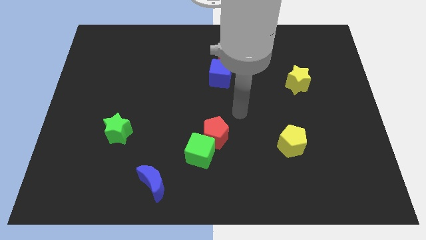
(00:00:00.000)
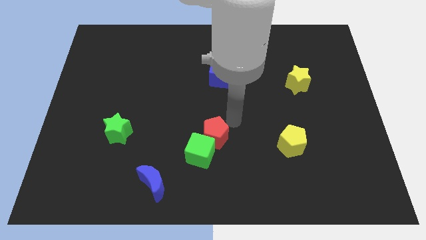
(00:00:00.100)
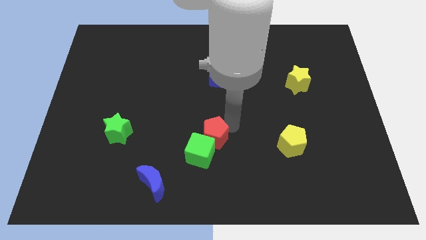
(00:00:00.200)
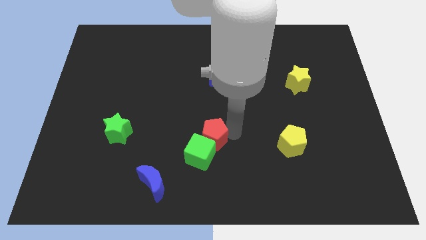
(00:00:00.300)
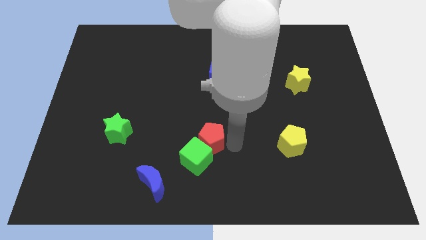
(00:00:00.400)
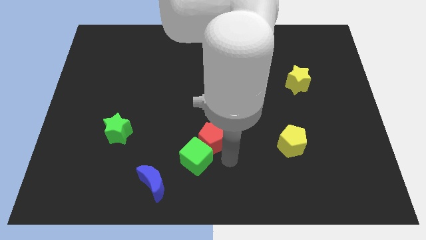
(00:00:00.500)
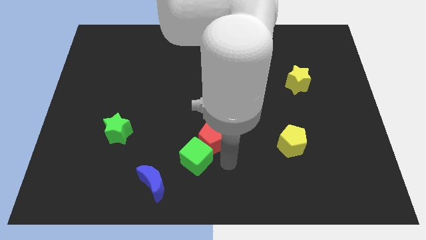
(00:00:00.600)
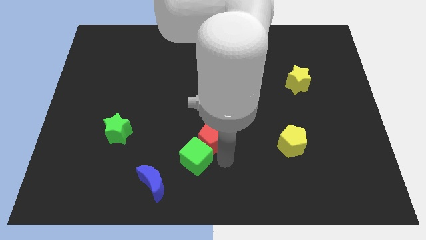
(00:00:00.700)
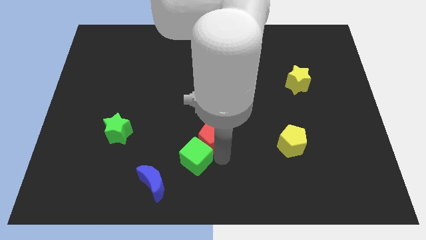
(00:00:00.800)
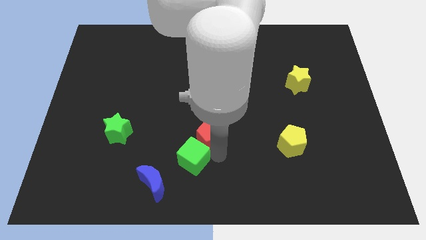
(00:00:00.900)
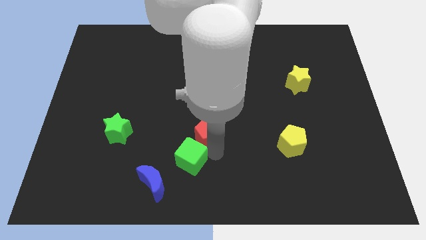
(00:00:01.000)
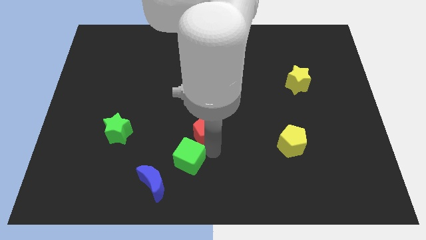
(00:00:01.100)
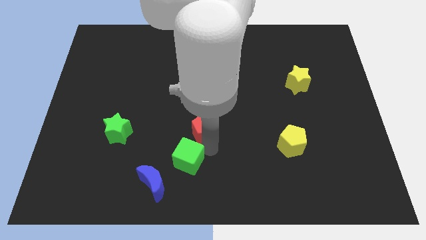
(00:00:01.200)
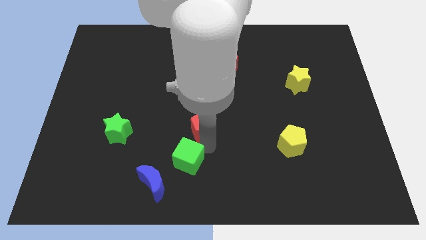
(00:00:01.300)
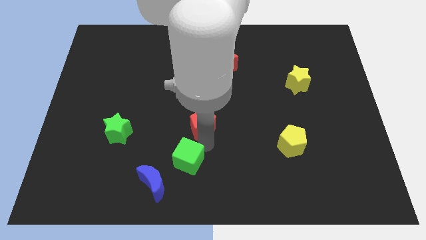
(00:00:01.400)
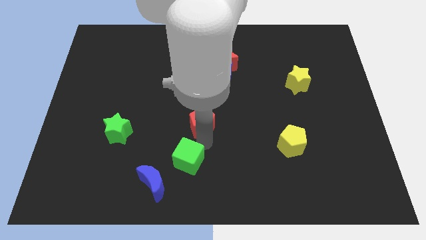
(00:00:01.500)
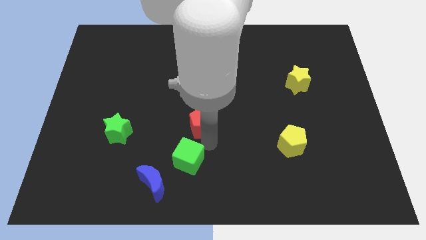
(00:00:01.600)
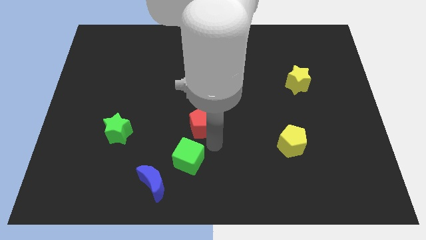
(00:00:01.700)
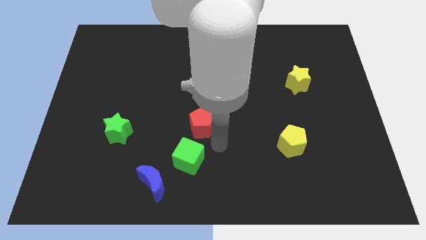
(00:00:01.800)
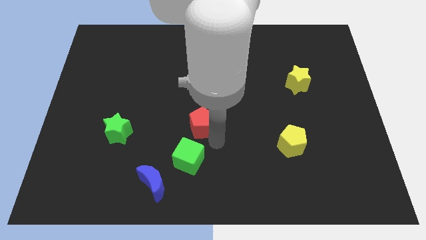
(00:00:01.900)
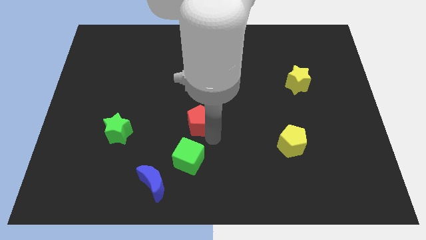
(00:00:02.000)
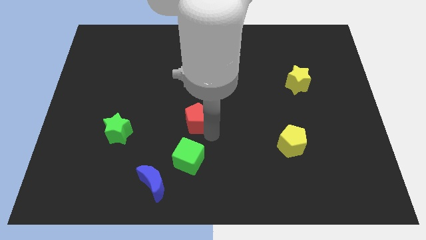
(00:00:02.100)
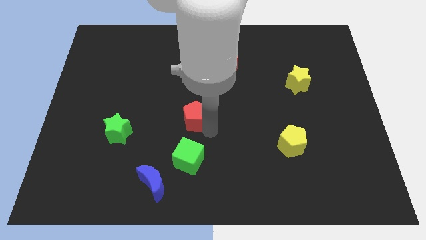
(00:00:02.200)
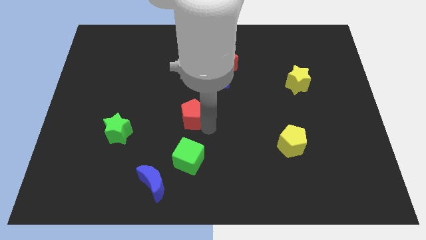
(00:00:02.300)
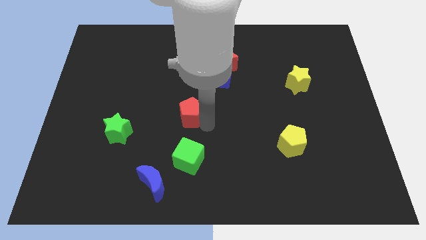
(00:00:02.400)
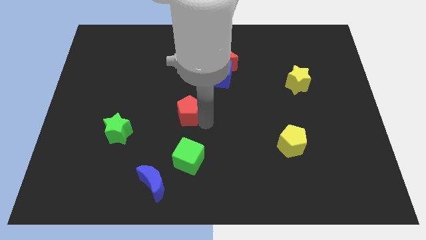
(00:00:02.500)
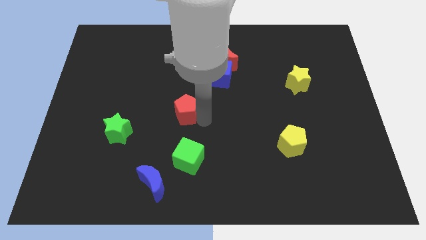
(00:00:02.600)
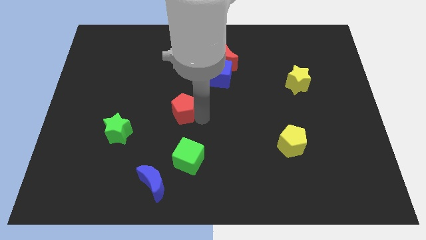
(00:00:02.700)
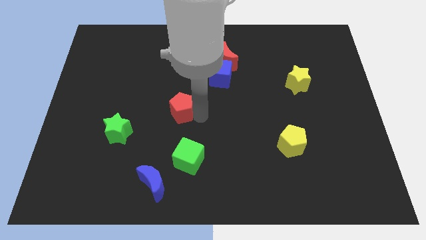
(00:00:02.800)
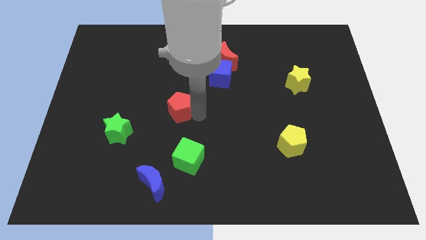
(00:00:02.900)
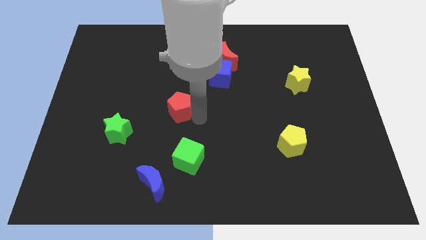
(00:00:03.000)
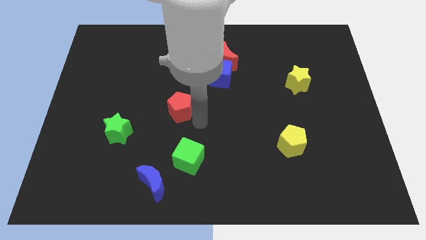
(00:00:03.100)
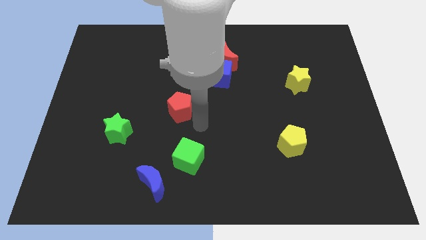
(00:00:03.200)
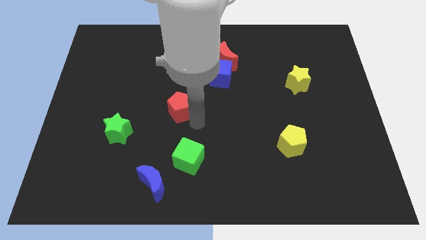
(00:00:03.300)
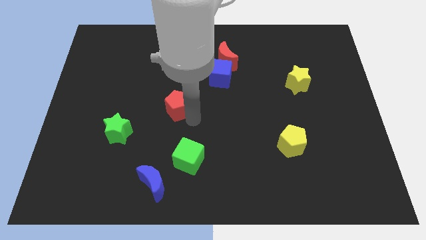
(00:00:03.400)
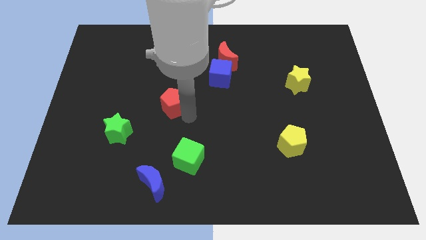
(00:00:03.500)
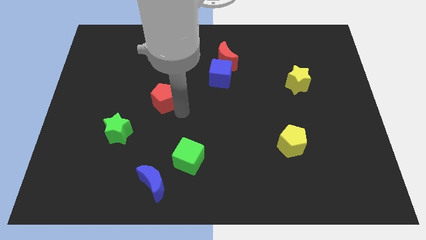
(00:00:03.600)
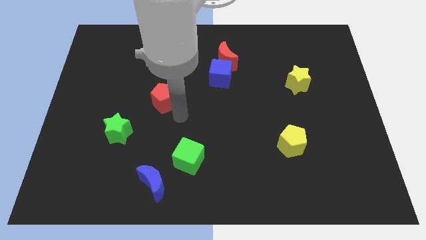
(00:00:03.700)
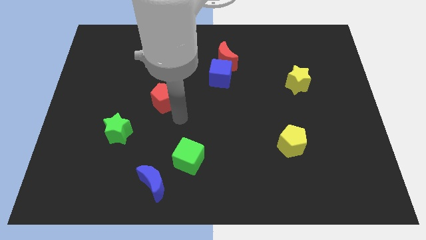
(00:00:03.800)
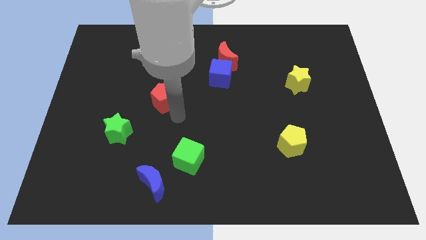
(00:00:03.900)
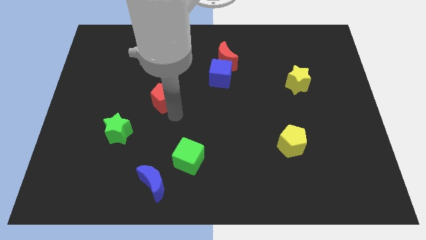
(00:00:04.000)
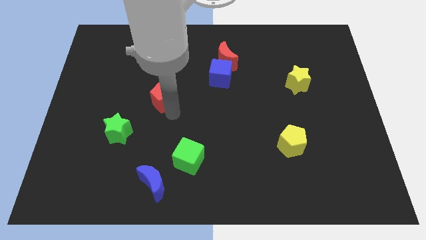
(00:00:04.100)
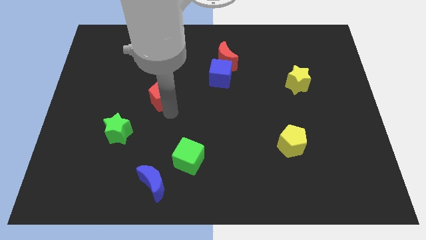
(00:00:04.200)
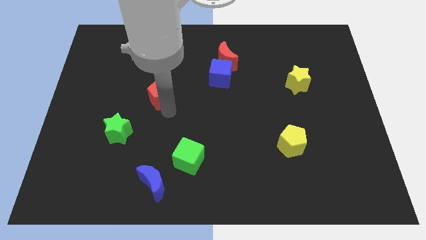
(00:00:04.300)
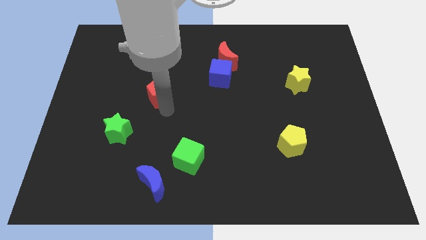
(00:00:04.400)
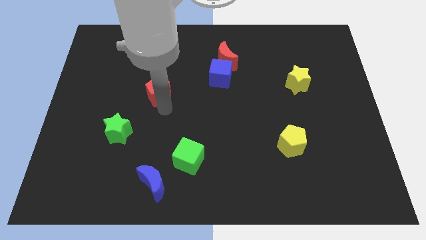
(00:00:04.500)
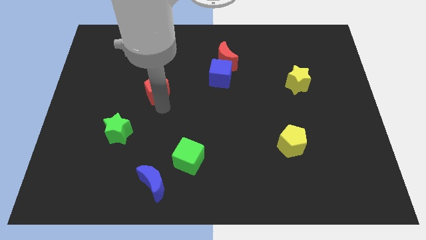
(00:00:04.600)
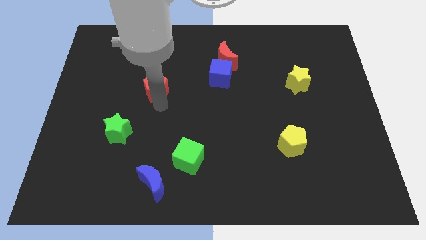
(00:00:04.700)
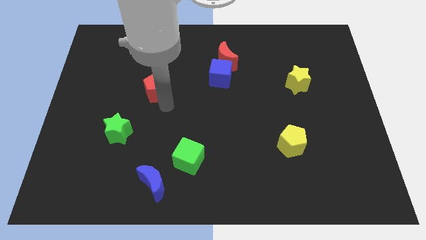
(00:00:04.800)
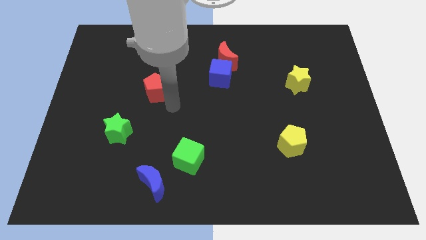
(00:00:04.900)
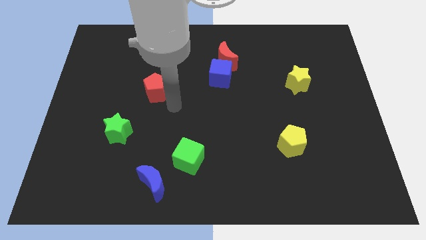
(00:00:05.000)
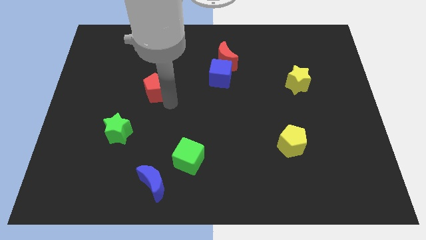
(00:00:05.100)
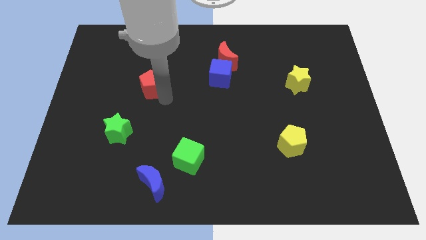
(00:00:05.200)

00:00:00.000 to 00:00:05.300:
move the red pentagon diagonally up and to the left

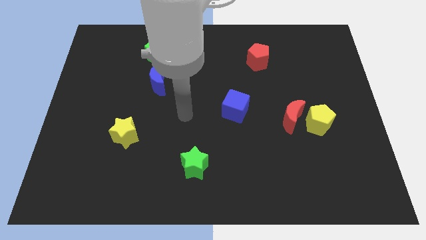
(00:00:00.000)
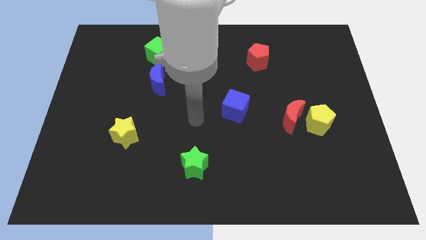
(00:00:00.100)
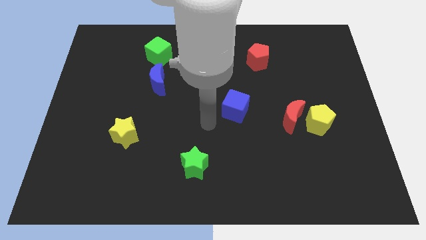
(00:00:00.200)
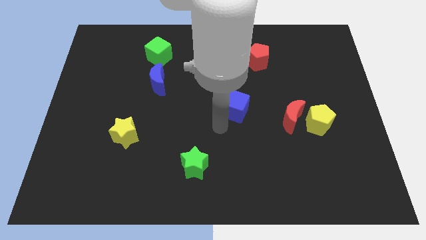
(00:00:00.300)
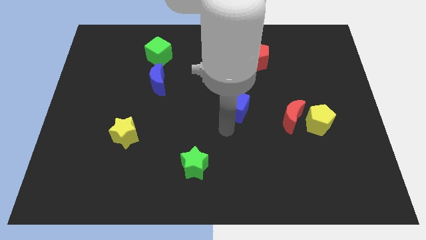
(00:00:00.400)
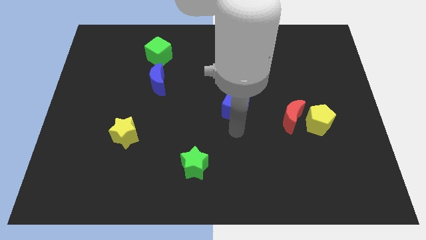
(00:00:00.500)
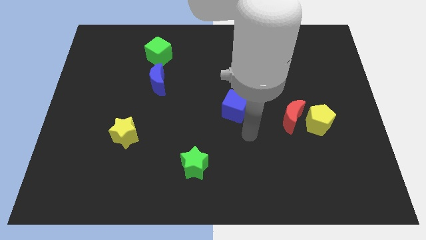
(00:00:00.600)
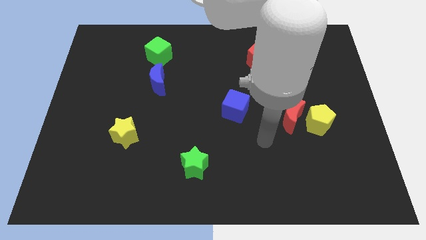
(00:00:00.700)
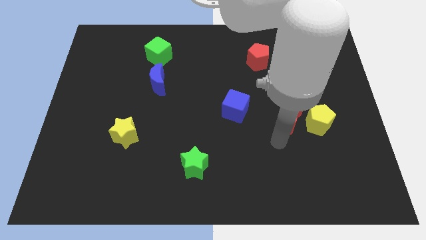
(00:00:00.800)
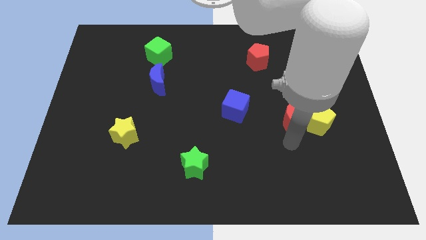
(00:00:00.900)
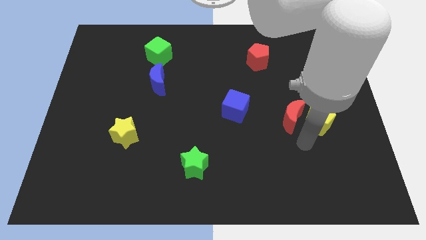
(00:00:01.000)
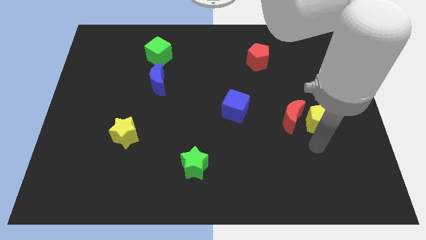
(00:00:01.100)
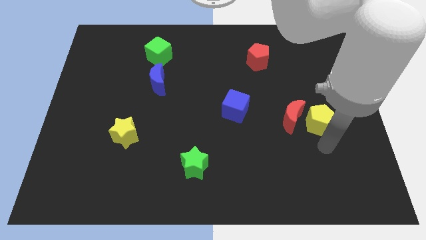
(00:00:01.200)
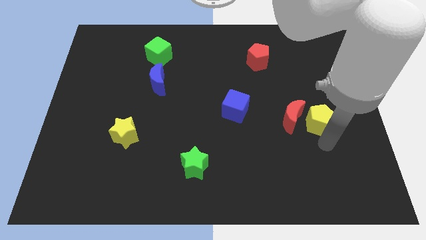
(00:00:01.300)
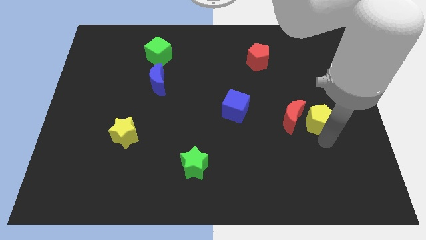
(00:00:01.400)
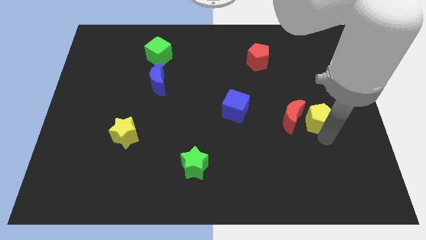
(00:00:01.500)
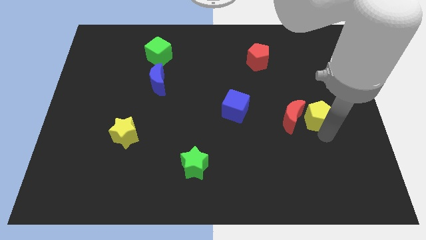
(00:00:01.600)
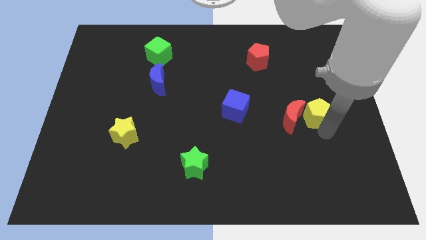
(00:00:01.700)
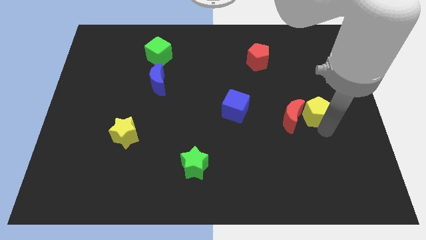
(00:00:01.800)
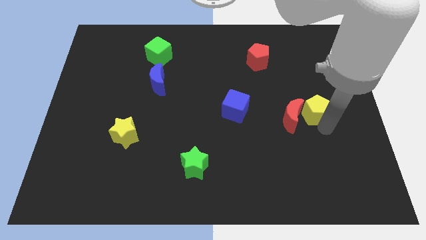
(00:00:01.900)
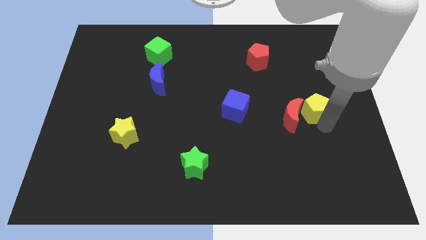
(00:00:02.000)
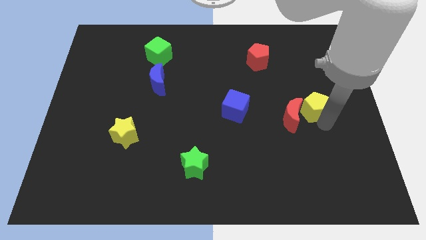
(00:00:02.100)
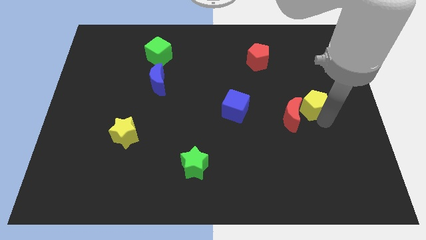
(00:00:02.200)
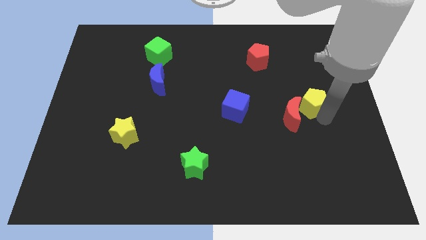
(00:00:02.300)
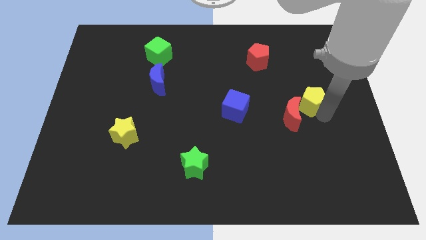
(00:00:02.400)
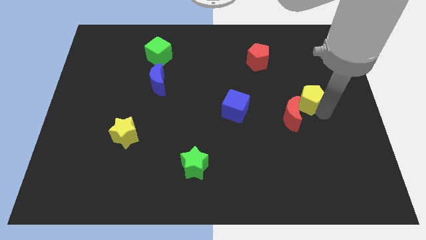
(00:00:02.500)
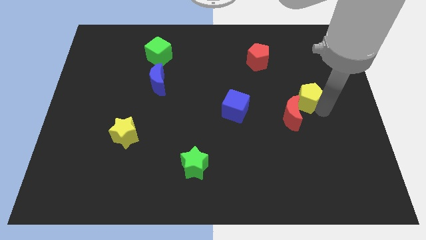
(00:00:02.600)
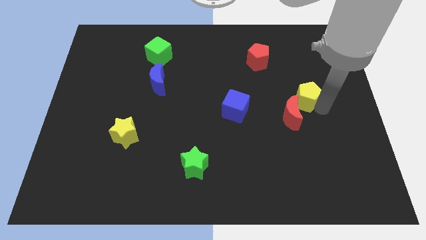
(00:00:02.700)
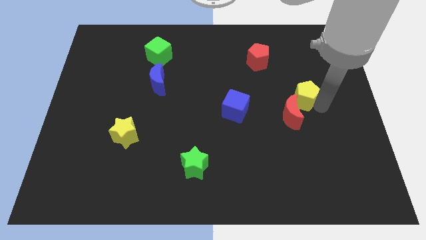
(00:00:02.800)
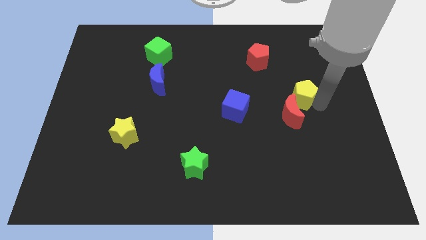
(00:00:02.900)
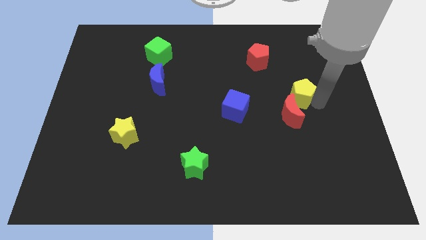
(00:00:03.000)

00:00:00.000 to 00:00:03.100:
move the yellow pentagon diagonally up and left a bit
